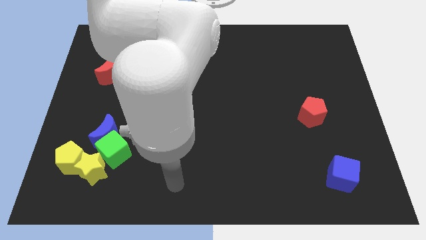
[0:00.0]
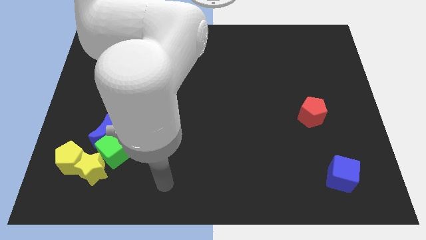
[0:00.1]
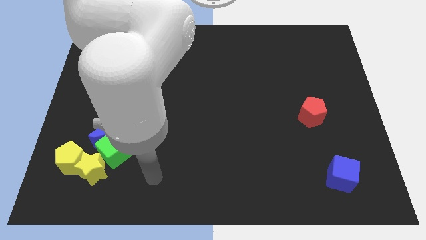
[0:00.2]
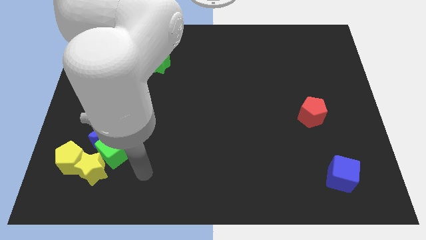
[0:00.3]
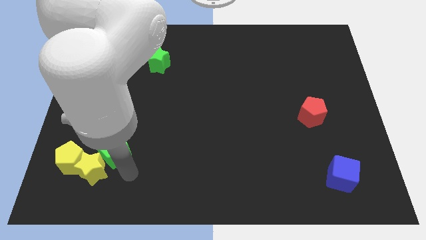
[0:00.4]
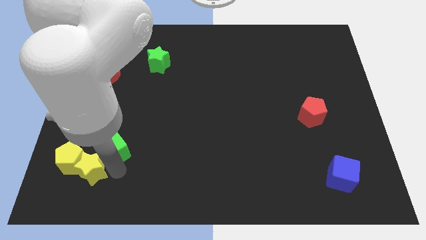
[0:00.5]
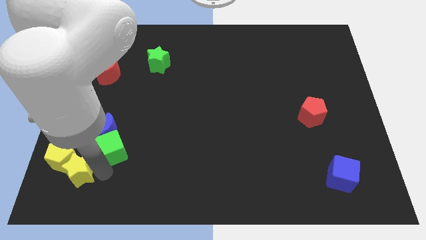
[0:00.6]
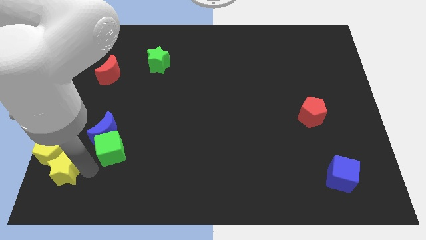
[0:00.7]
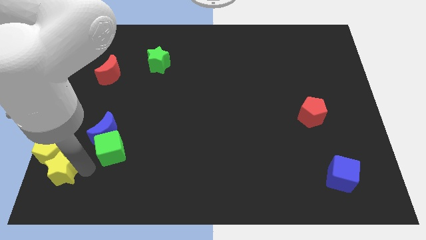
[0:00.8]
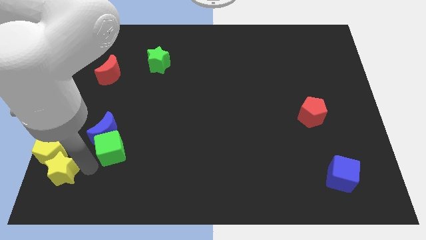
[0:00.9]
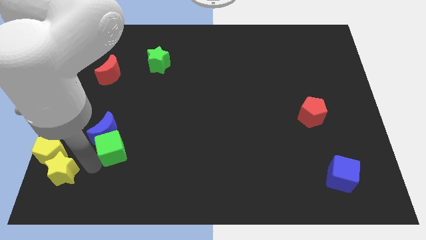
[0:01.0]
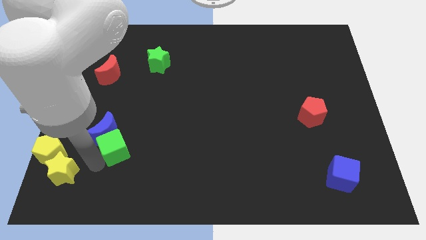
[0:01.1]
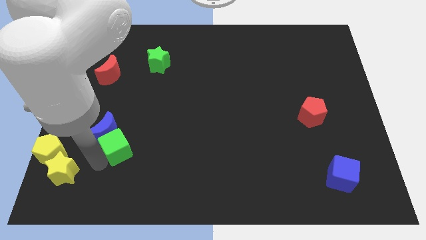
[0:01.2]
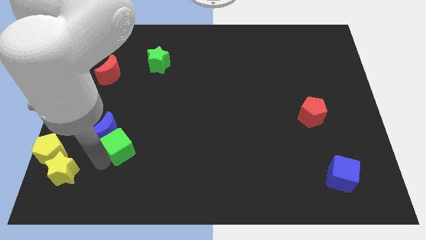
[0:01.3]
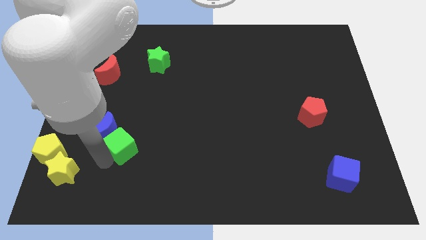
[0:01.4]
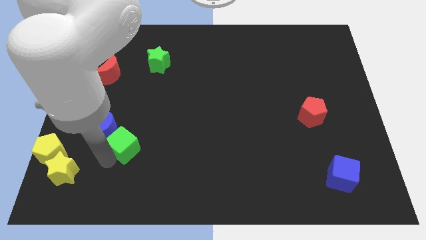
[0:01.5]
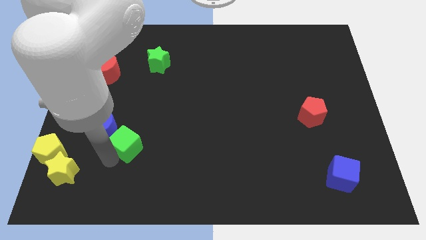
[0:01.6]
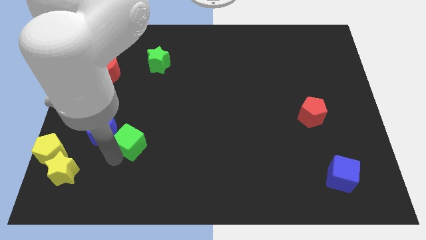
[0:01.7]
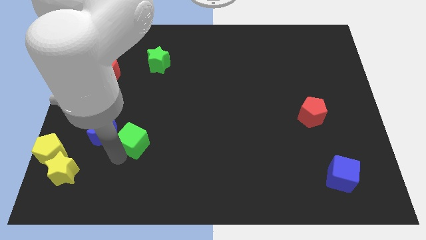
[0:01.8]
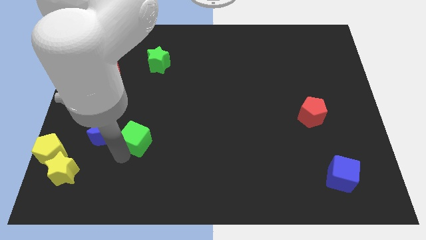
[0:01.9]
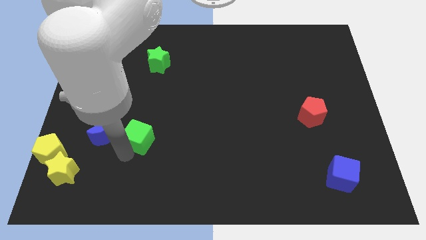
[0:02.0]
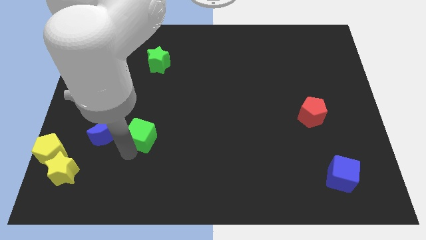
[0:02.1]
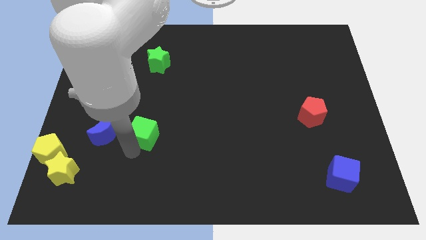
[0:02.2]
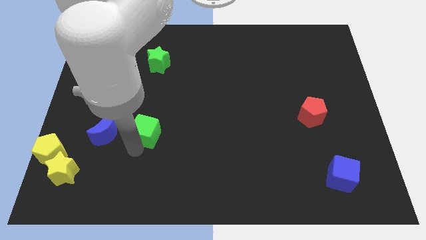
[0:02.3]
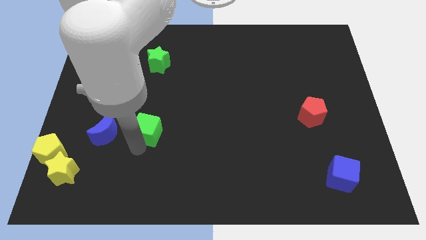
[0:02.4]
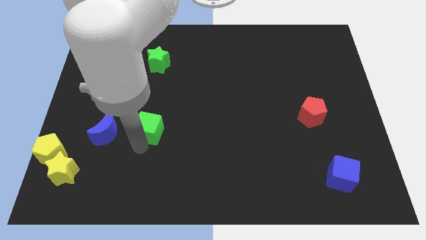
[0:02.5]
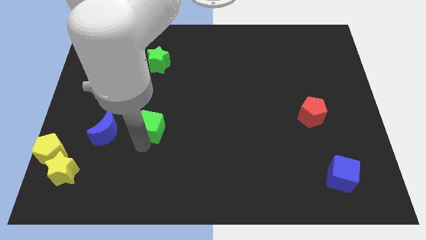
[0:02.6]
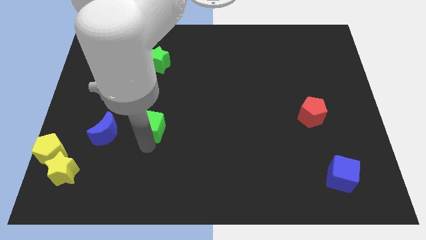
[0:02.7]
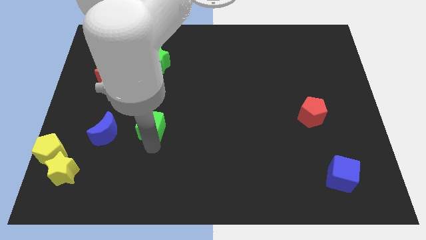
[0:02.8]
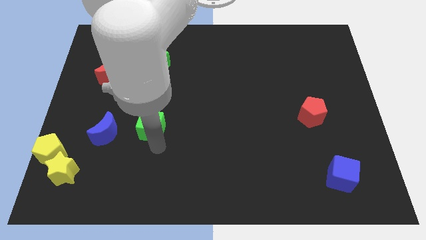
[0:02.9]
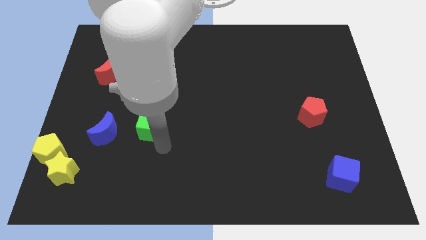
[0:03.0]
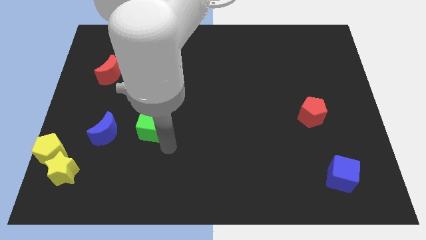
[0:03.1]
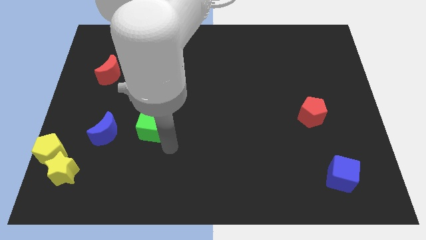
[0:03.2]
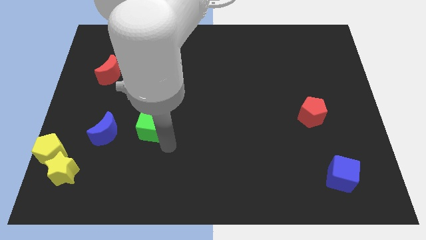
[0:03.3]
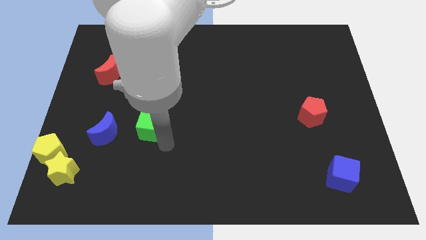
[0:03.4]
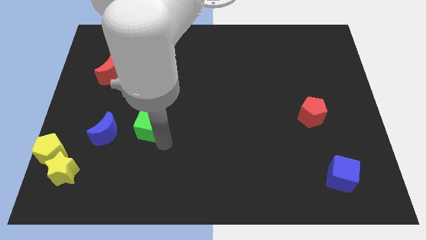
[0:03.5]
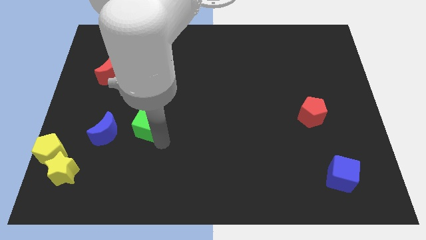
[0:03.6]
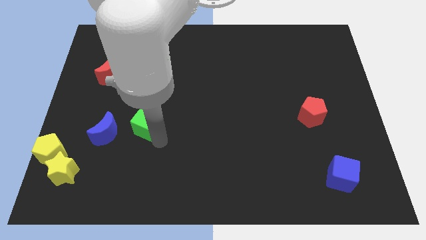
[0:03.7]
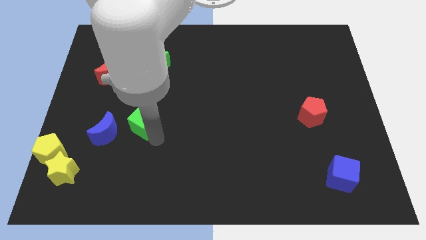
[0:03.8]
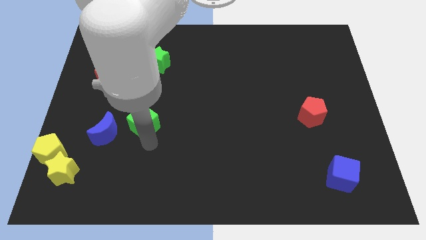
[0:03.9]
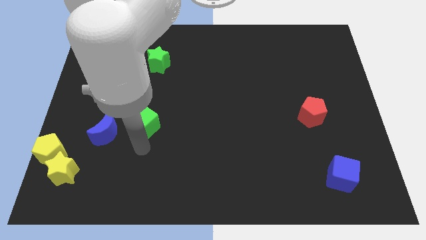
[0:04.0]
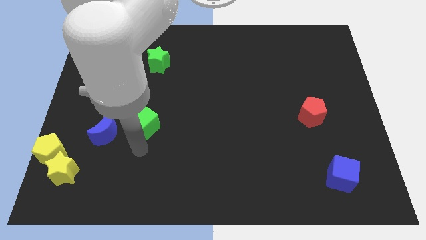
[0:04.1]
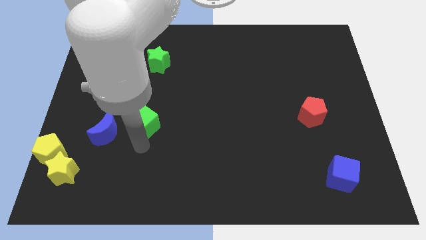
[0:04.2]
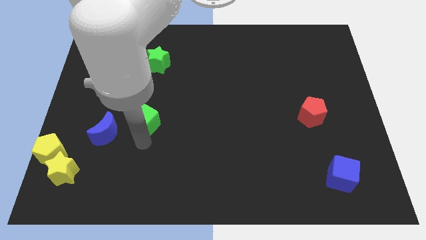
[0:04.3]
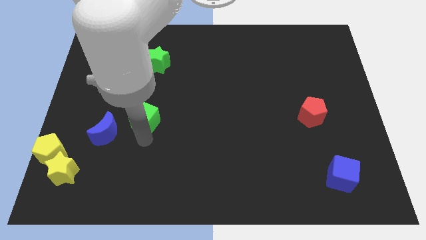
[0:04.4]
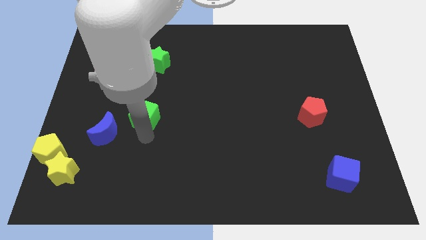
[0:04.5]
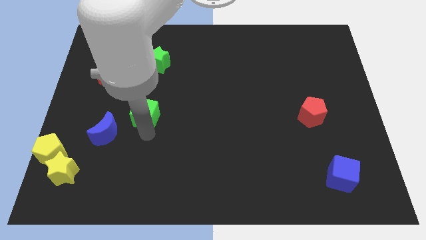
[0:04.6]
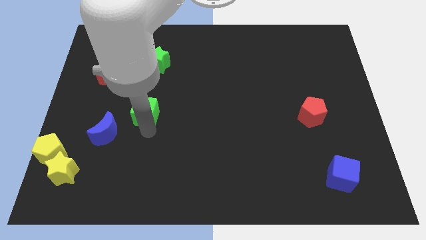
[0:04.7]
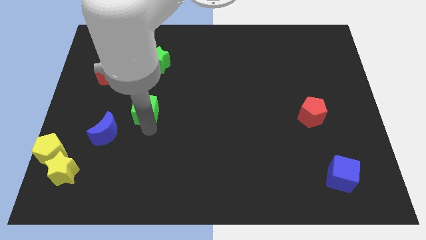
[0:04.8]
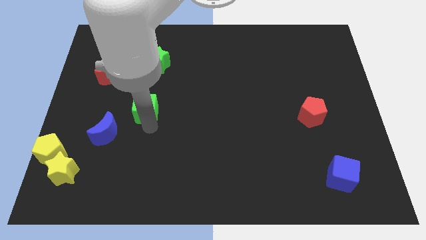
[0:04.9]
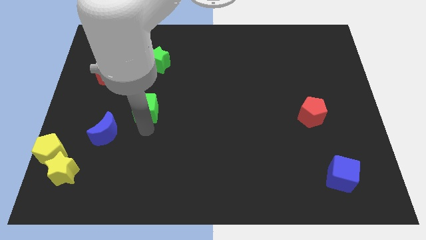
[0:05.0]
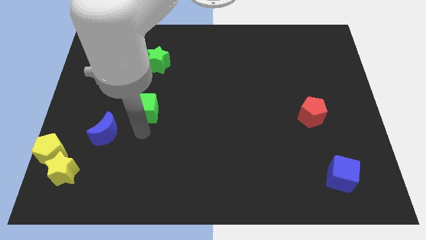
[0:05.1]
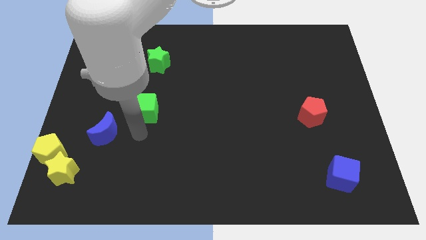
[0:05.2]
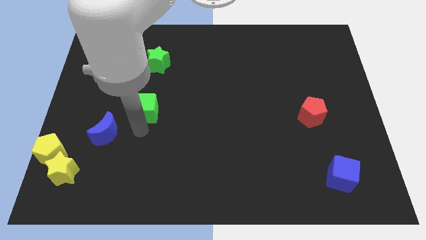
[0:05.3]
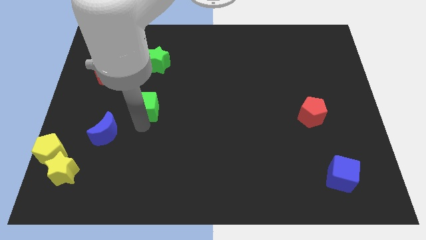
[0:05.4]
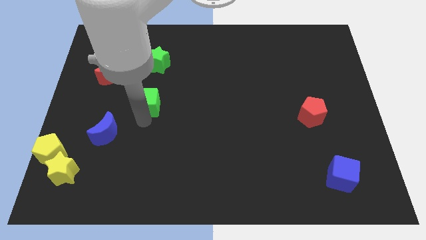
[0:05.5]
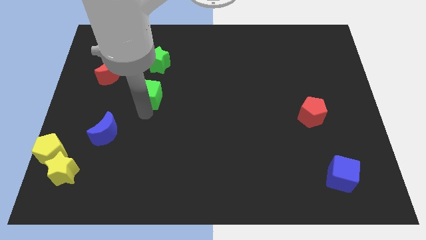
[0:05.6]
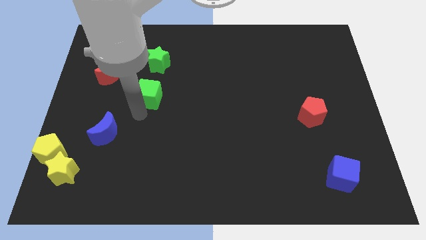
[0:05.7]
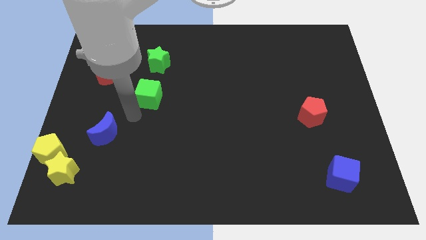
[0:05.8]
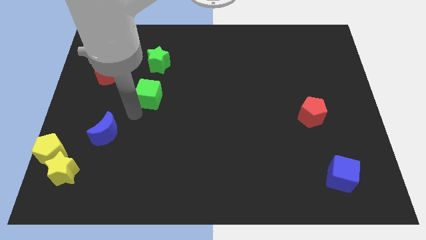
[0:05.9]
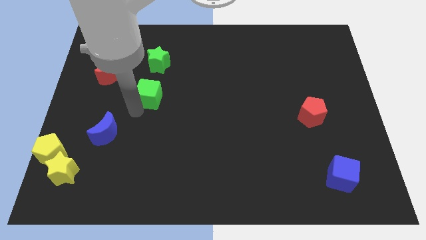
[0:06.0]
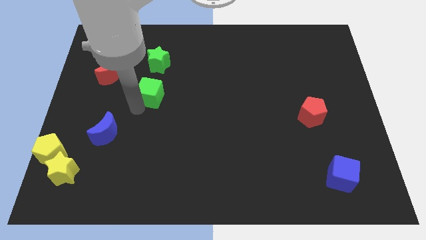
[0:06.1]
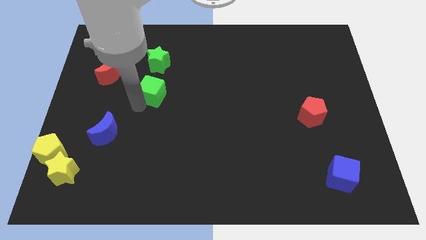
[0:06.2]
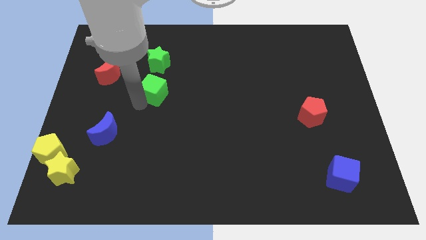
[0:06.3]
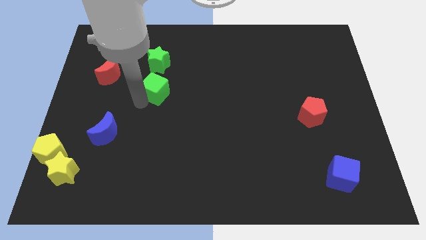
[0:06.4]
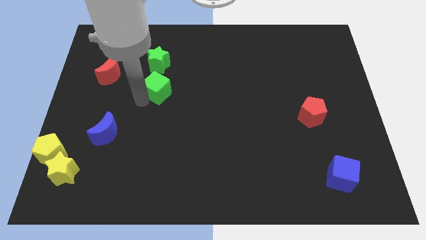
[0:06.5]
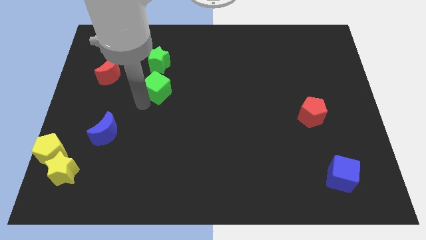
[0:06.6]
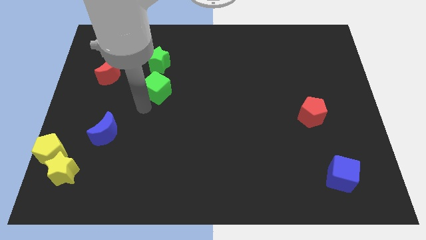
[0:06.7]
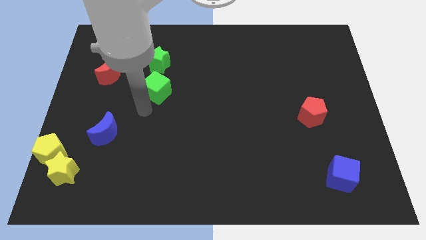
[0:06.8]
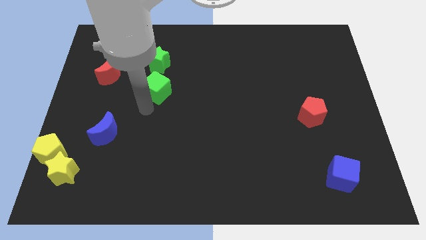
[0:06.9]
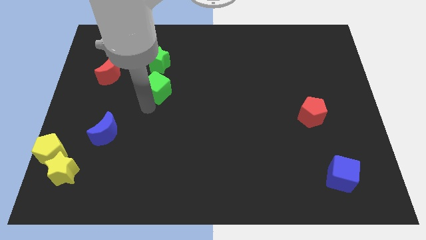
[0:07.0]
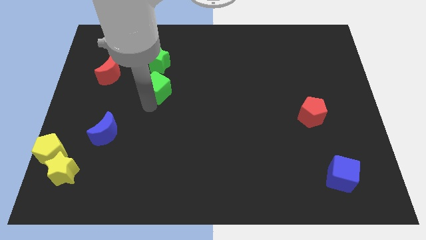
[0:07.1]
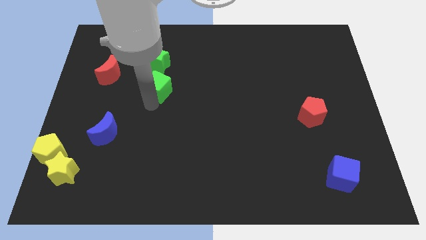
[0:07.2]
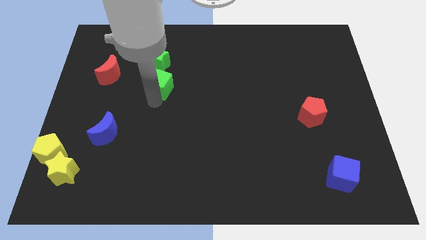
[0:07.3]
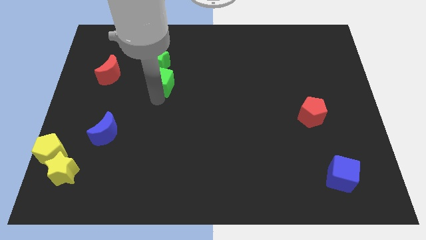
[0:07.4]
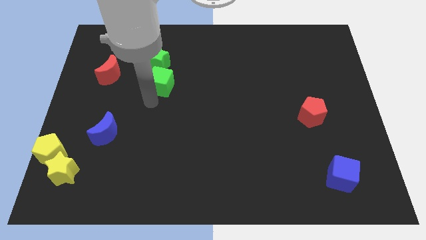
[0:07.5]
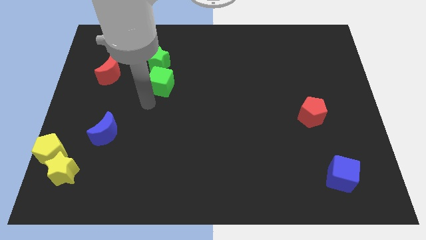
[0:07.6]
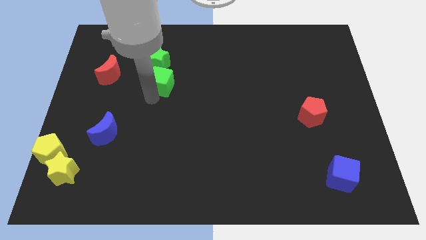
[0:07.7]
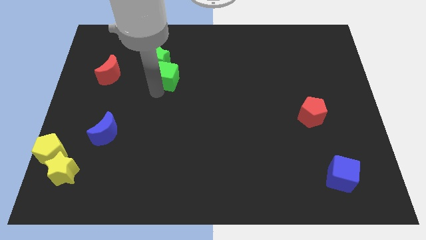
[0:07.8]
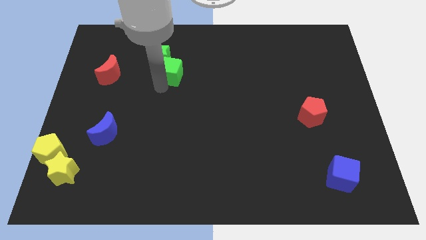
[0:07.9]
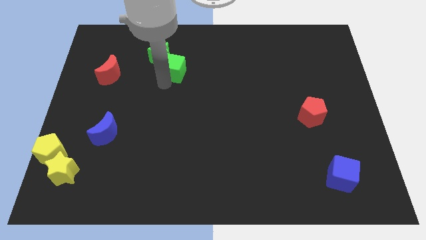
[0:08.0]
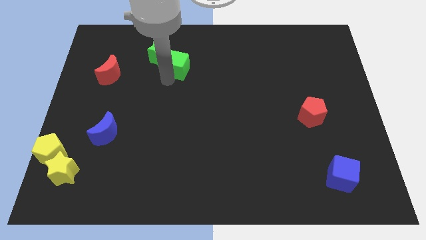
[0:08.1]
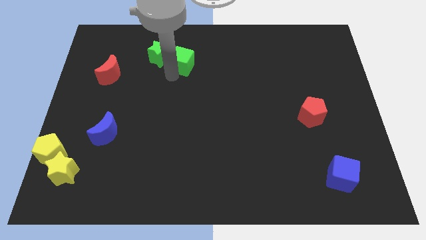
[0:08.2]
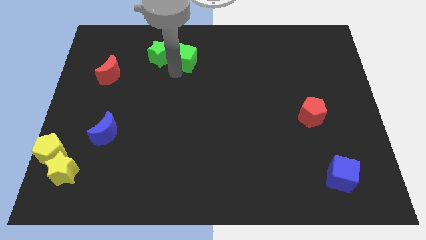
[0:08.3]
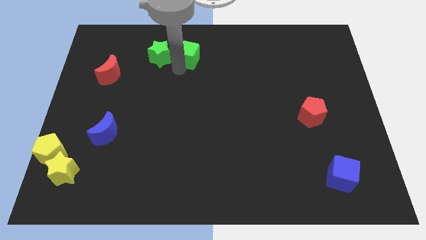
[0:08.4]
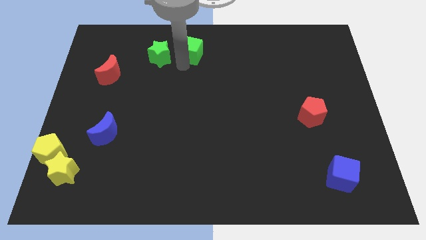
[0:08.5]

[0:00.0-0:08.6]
put the green cube to the top side
